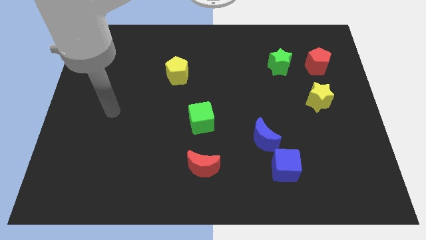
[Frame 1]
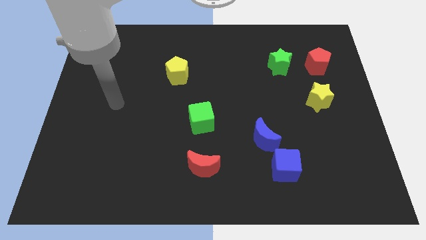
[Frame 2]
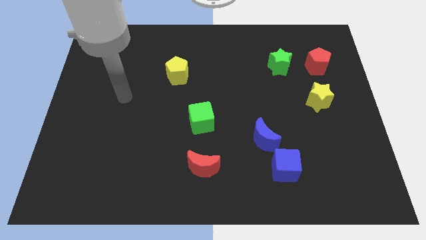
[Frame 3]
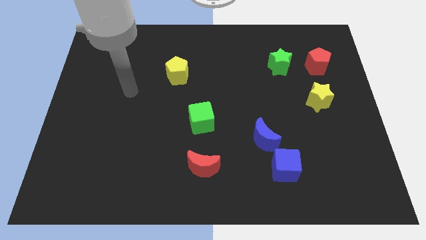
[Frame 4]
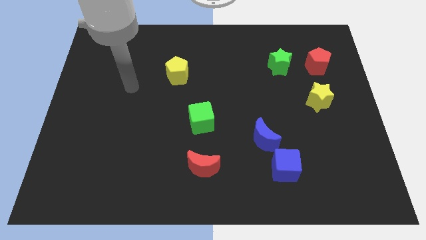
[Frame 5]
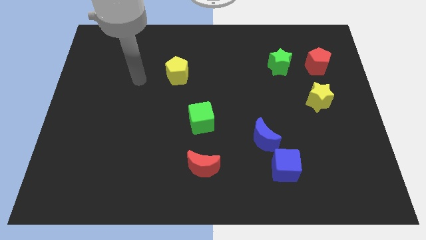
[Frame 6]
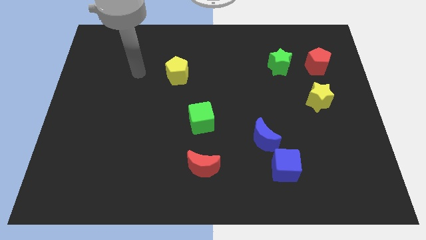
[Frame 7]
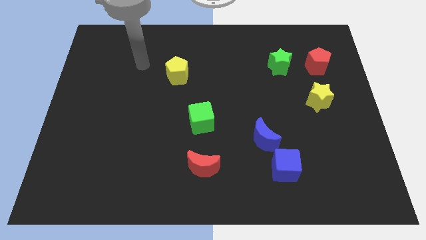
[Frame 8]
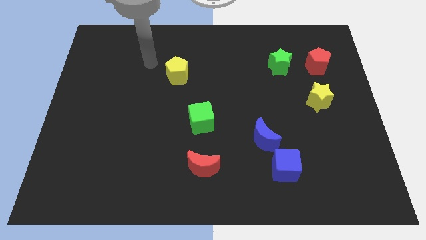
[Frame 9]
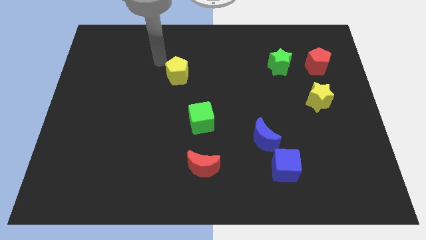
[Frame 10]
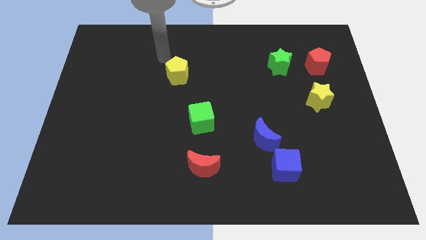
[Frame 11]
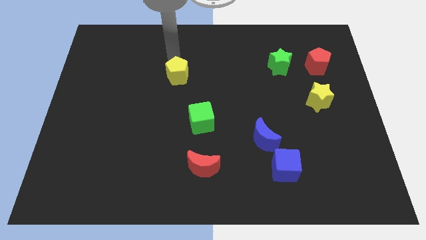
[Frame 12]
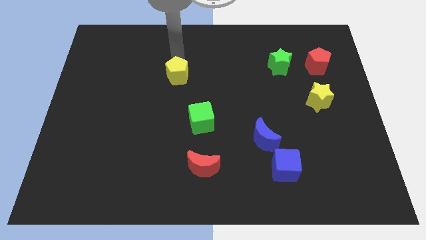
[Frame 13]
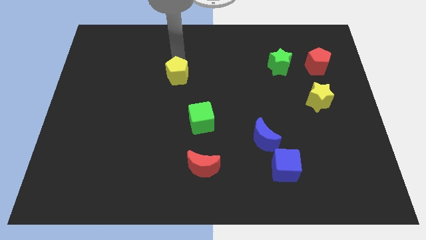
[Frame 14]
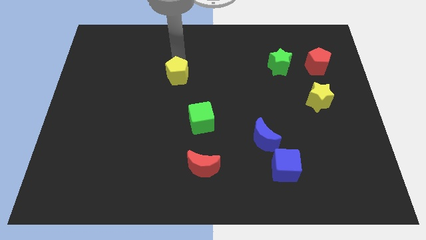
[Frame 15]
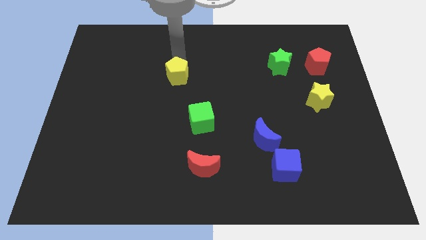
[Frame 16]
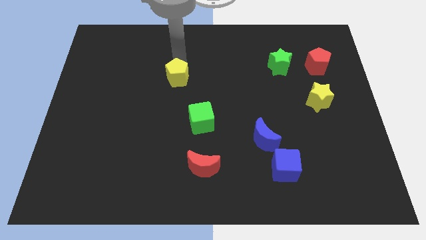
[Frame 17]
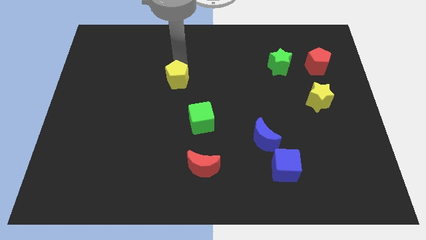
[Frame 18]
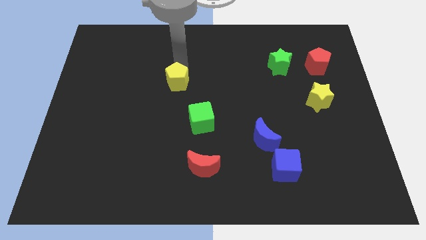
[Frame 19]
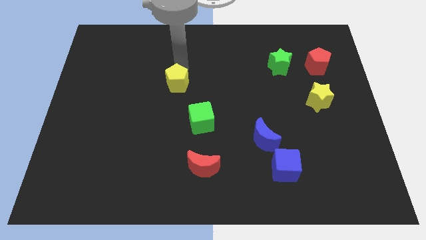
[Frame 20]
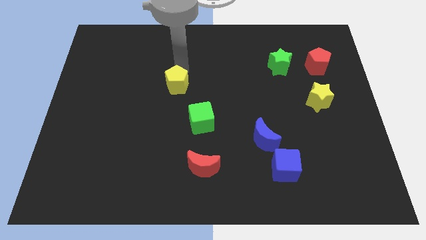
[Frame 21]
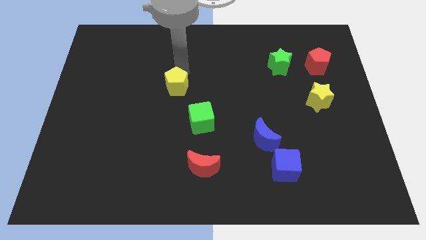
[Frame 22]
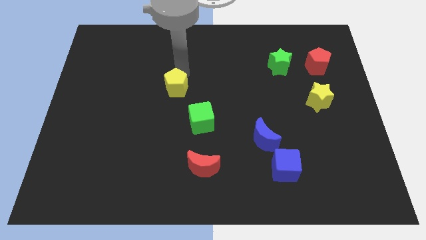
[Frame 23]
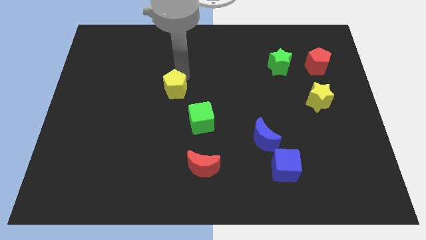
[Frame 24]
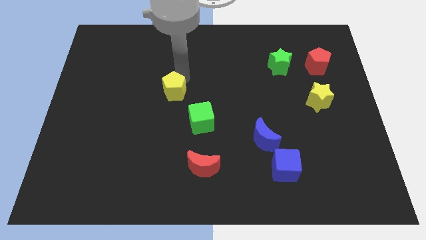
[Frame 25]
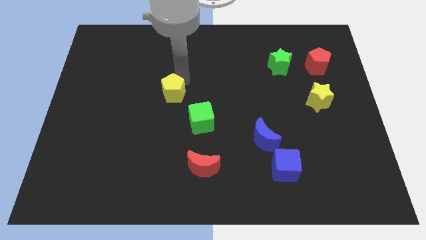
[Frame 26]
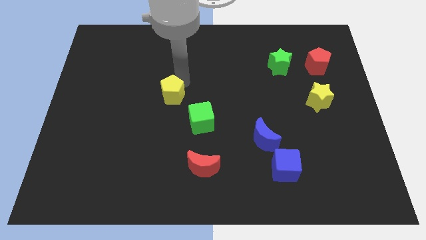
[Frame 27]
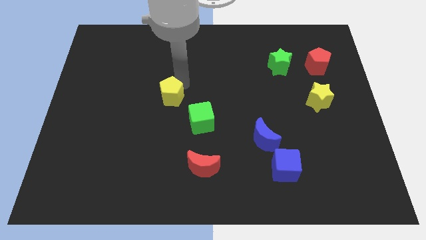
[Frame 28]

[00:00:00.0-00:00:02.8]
slide the yellow pentagon a little downwards

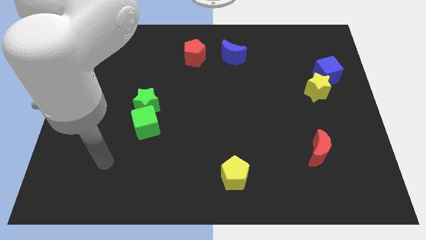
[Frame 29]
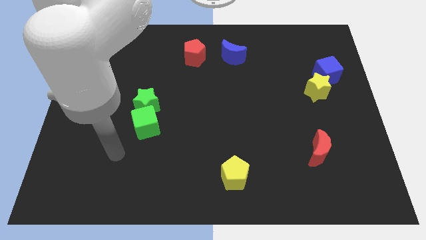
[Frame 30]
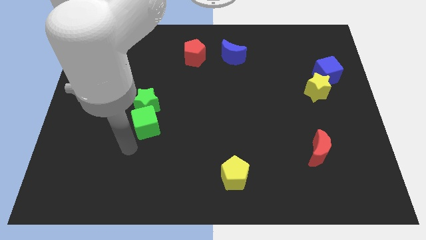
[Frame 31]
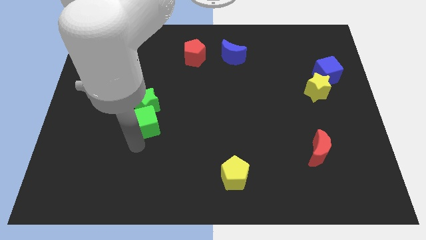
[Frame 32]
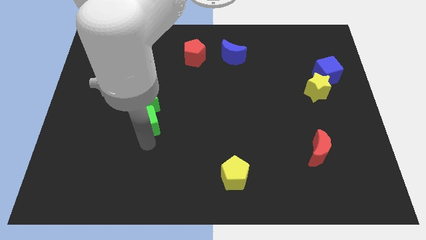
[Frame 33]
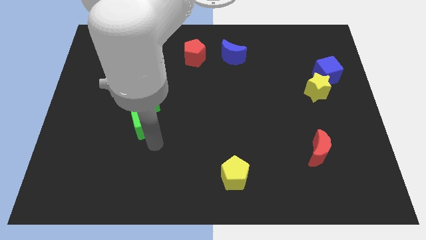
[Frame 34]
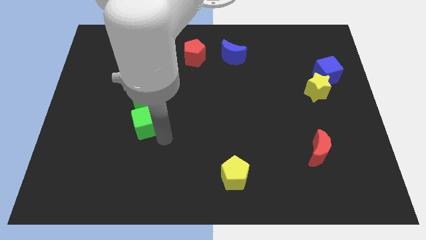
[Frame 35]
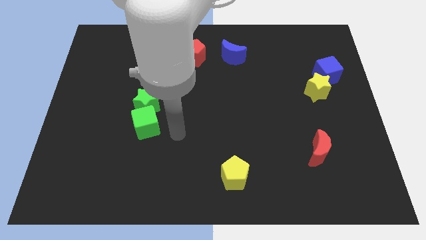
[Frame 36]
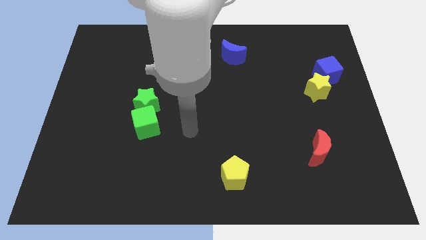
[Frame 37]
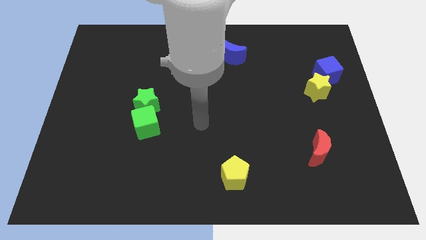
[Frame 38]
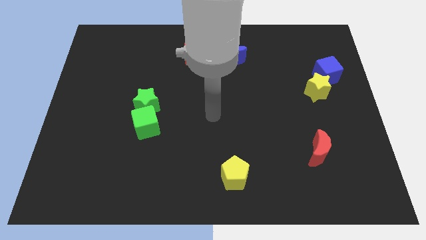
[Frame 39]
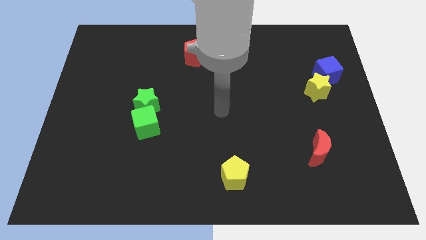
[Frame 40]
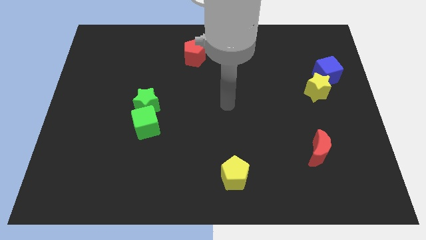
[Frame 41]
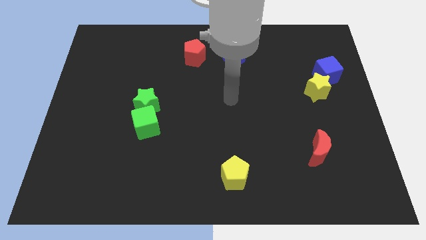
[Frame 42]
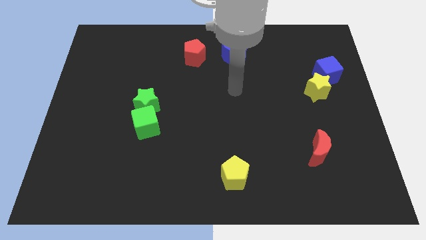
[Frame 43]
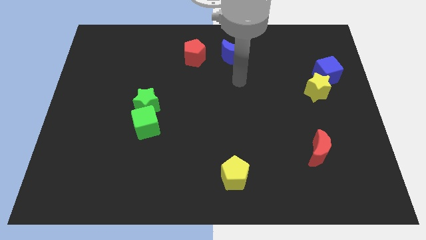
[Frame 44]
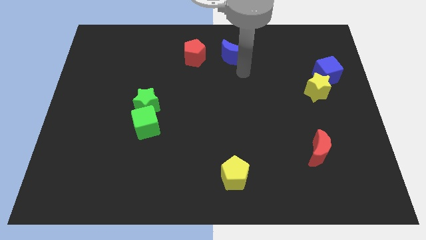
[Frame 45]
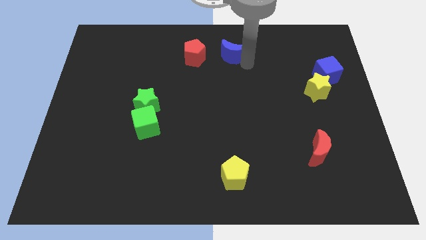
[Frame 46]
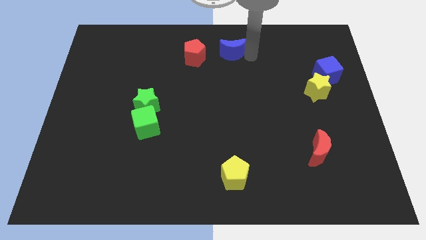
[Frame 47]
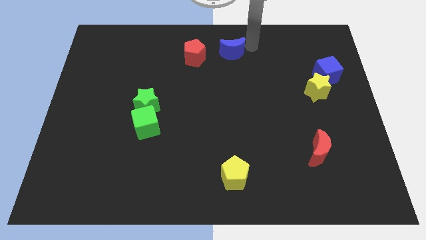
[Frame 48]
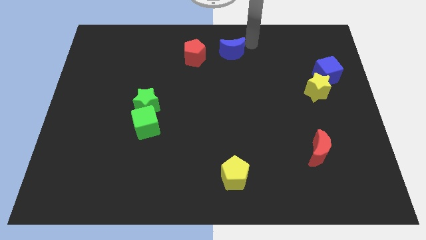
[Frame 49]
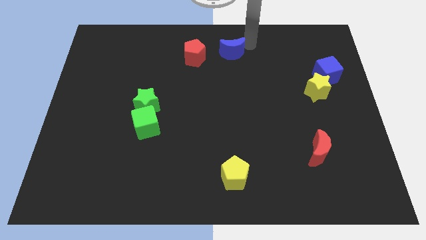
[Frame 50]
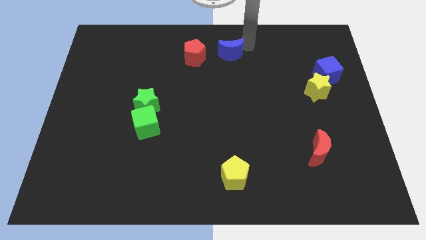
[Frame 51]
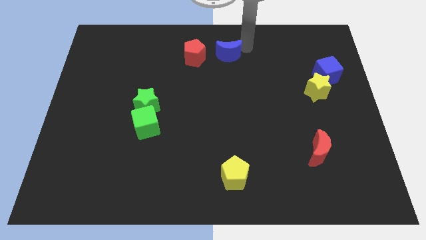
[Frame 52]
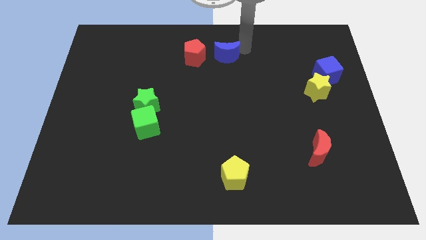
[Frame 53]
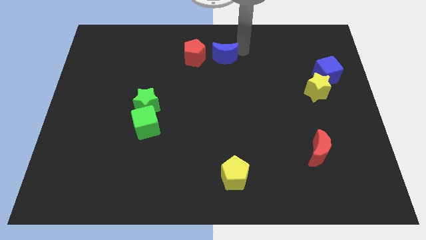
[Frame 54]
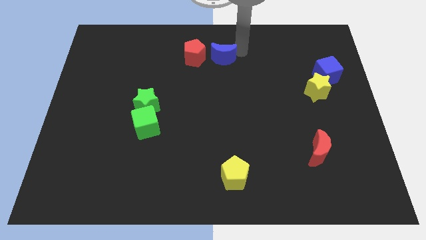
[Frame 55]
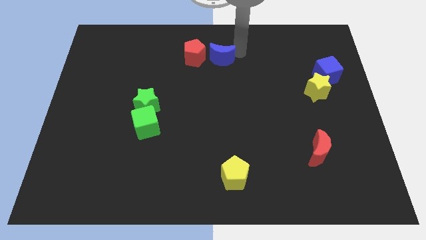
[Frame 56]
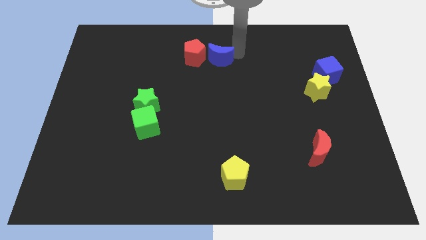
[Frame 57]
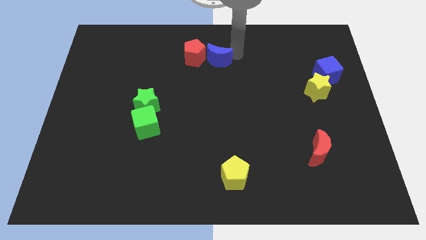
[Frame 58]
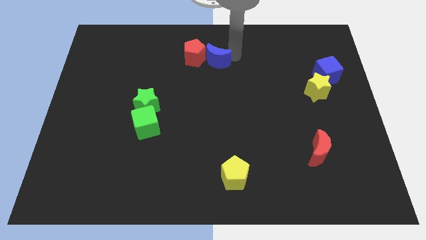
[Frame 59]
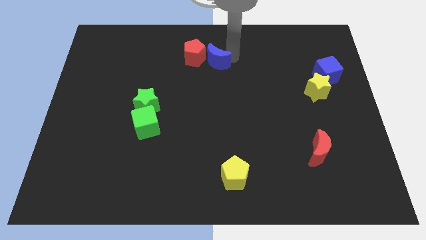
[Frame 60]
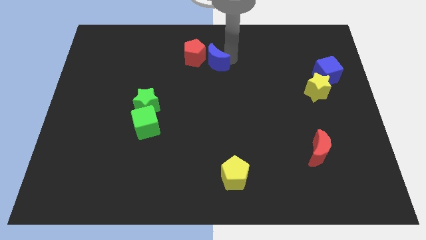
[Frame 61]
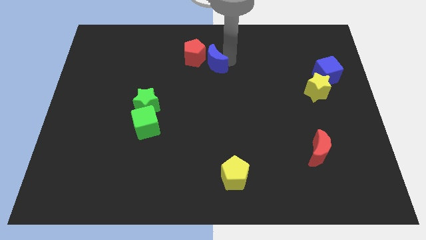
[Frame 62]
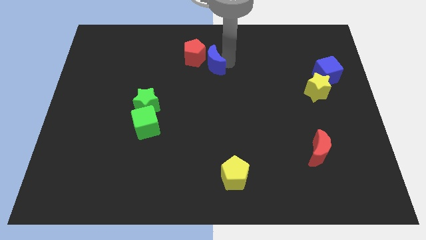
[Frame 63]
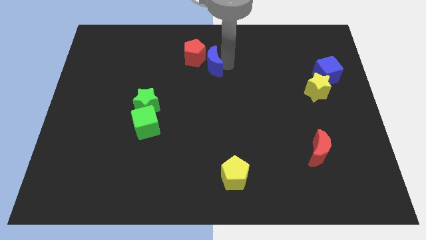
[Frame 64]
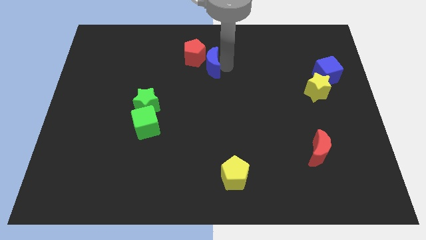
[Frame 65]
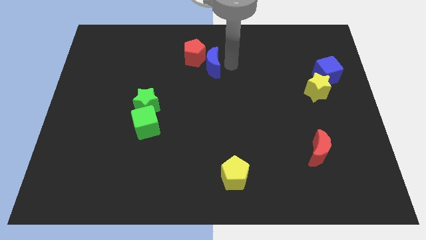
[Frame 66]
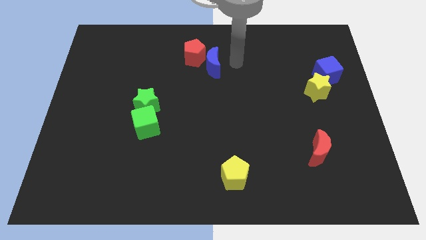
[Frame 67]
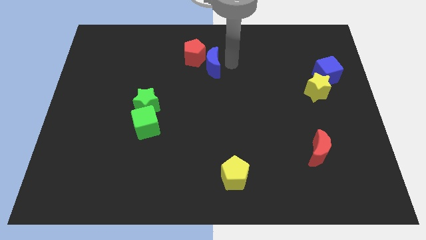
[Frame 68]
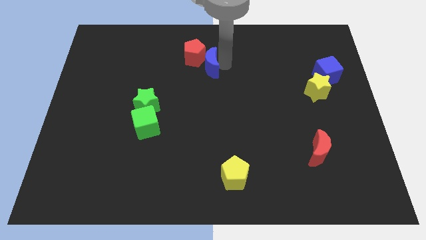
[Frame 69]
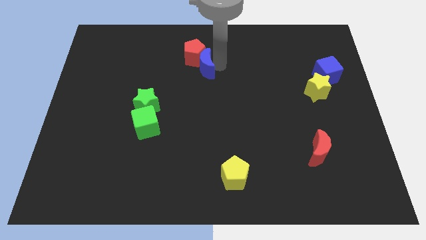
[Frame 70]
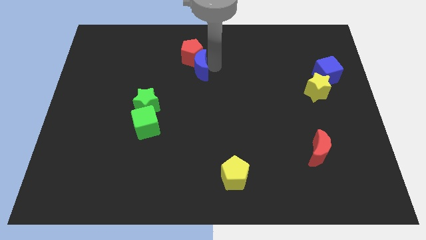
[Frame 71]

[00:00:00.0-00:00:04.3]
slightly push the blue moon left

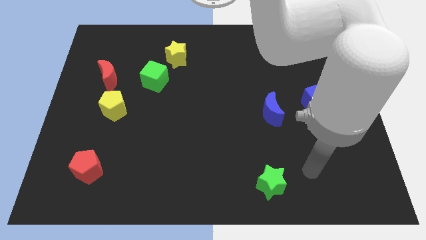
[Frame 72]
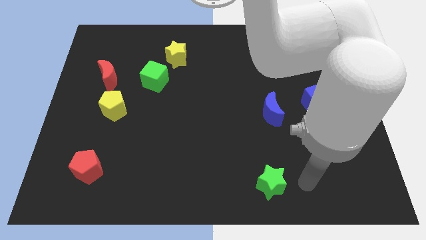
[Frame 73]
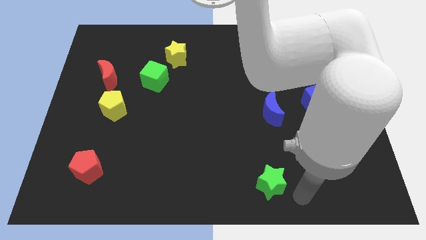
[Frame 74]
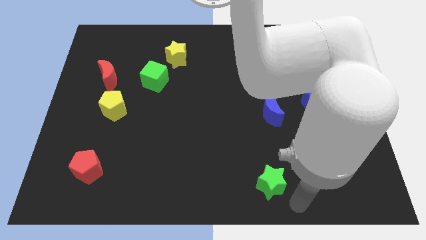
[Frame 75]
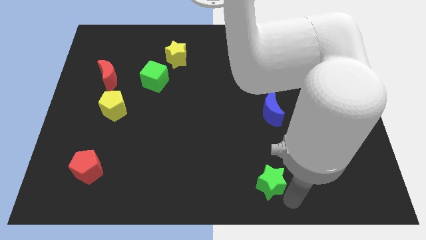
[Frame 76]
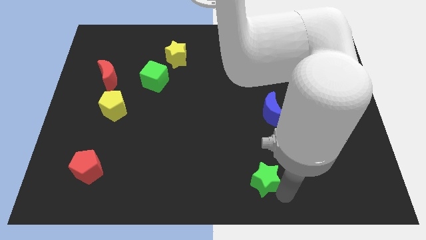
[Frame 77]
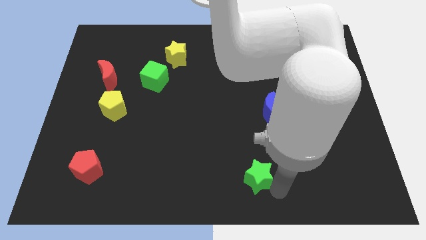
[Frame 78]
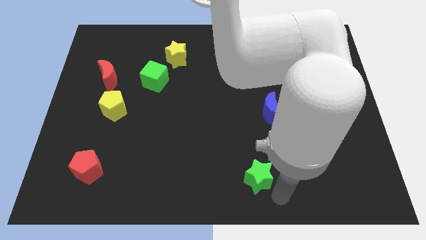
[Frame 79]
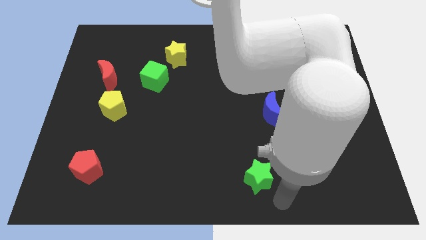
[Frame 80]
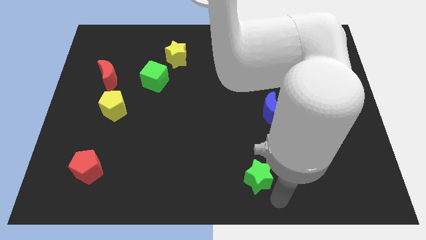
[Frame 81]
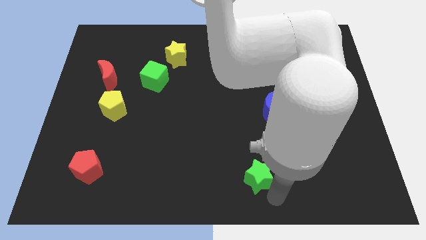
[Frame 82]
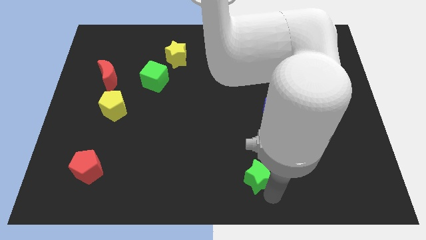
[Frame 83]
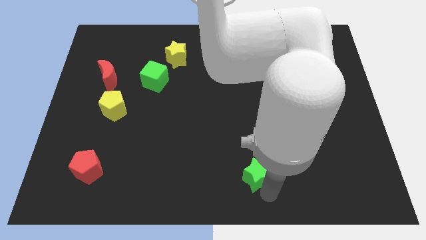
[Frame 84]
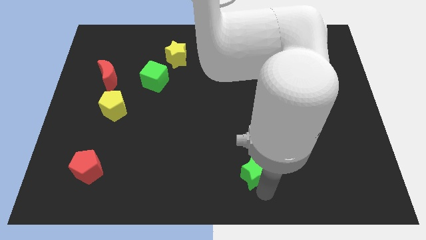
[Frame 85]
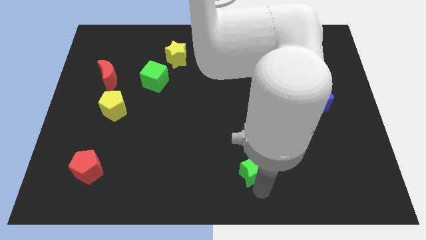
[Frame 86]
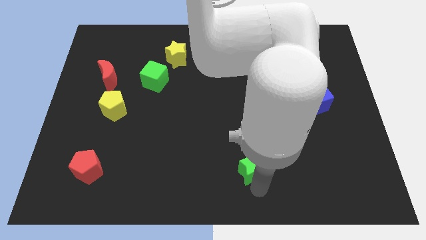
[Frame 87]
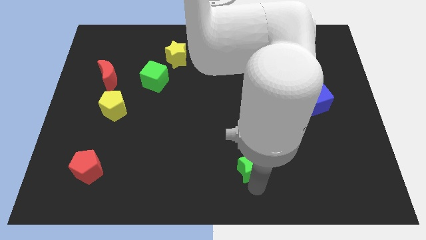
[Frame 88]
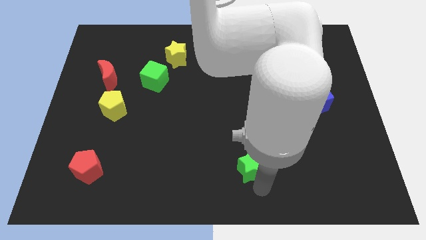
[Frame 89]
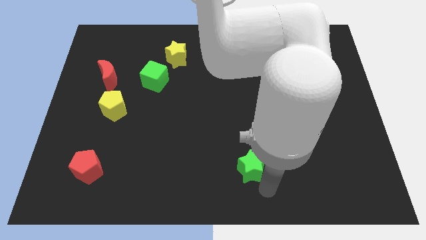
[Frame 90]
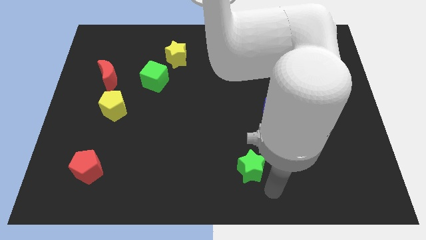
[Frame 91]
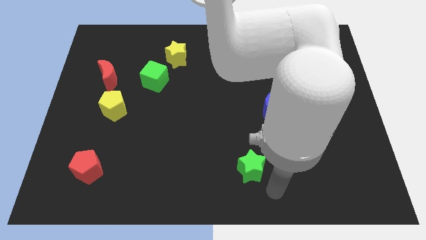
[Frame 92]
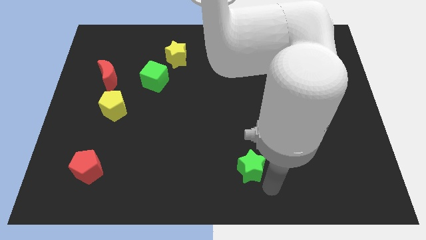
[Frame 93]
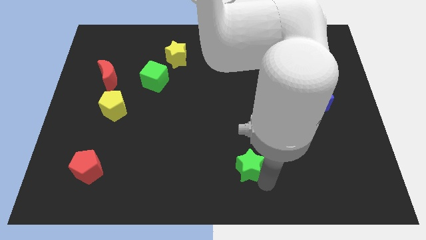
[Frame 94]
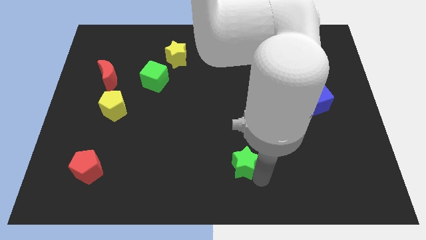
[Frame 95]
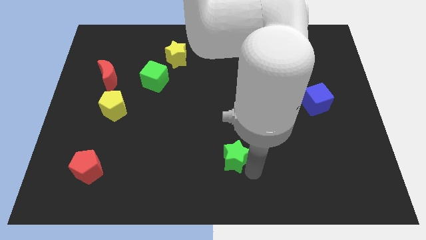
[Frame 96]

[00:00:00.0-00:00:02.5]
move the green star diagonally up and to the left a bit
